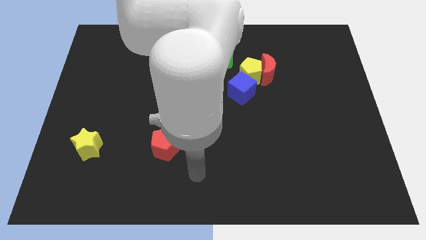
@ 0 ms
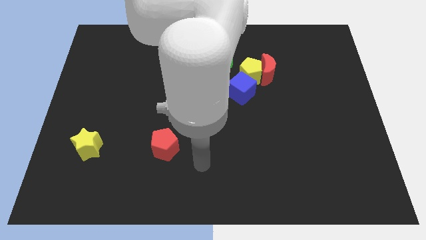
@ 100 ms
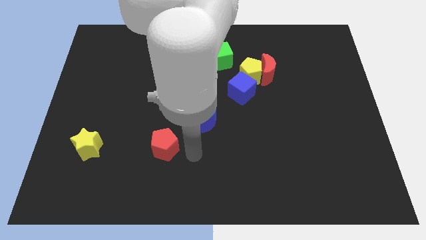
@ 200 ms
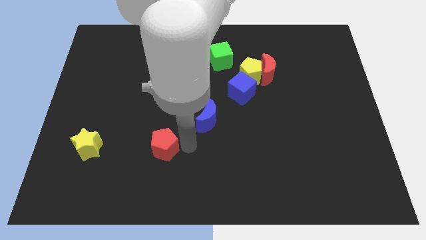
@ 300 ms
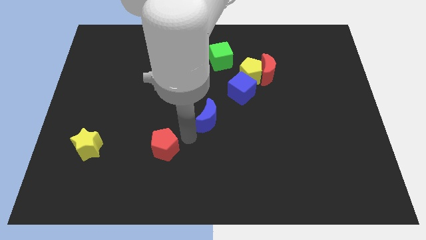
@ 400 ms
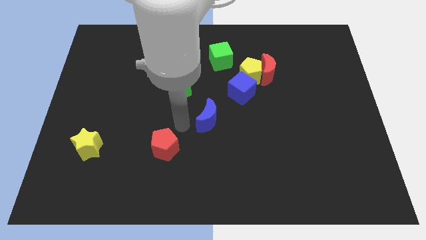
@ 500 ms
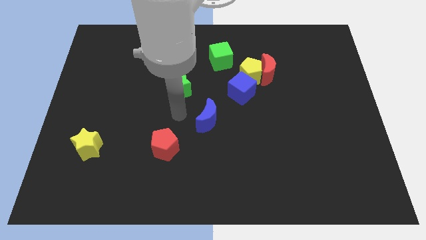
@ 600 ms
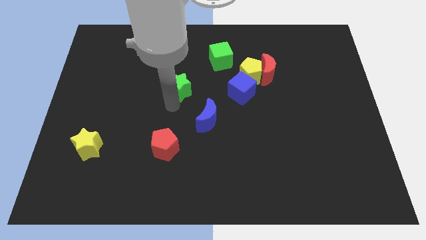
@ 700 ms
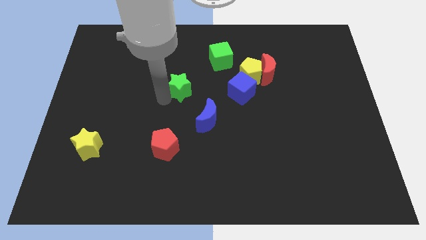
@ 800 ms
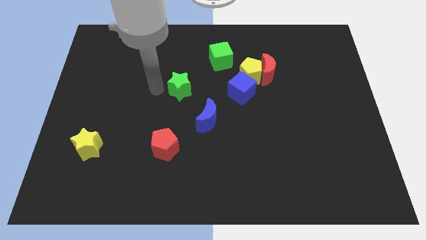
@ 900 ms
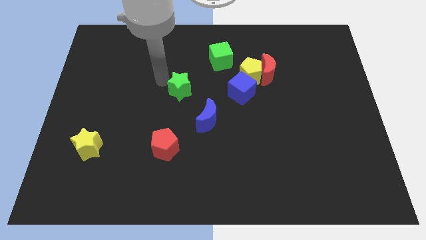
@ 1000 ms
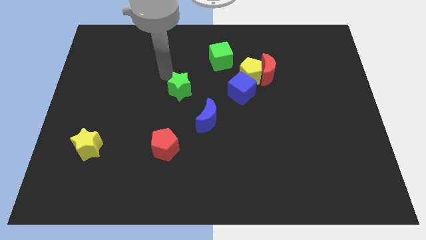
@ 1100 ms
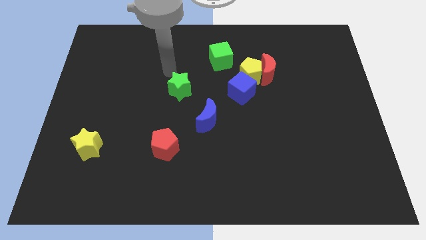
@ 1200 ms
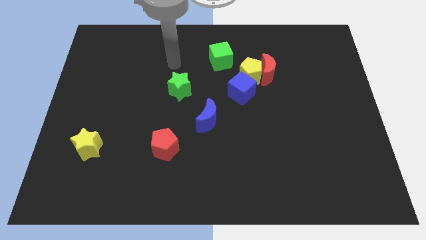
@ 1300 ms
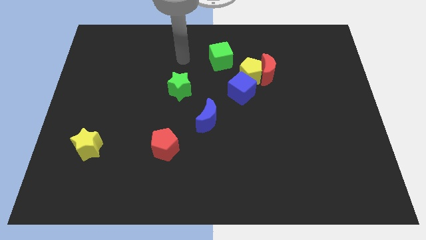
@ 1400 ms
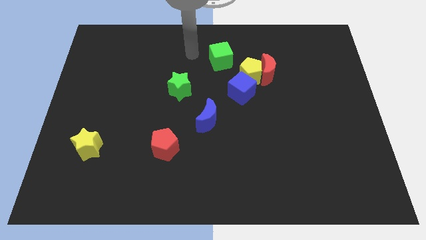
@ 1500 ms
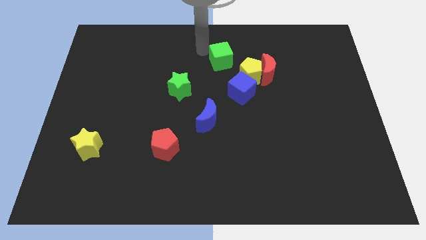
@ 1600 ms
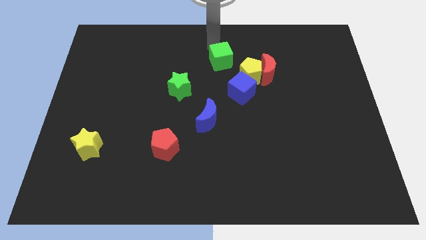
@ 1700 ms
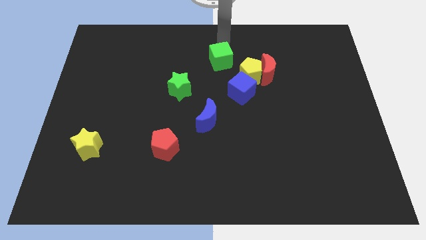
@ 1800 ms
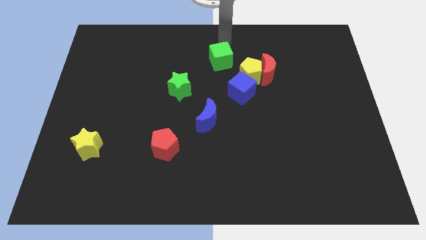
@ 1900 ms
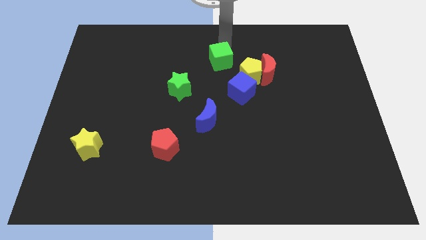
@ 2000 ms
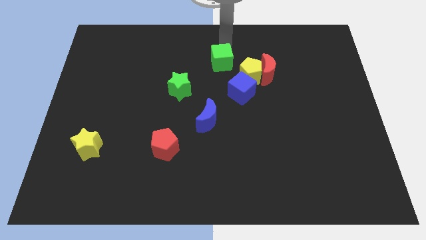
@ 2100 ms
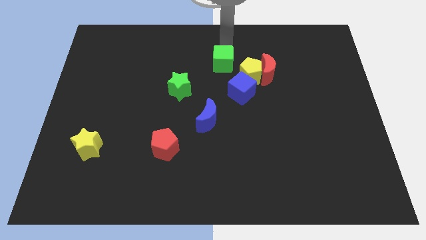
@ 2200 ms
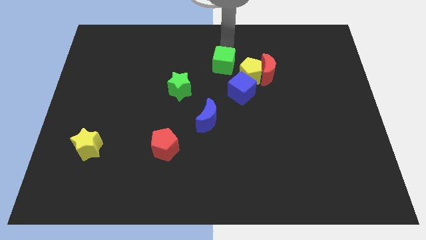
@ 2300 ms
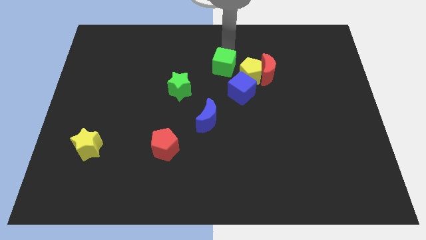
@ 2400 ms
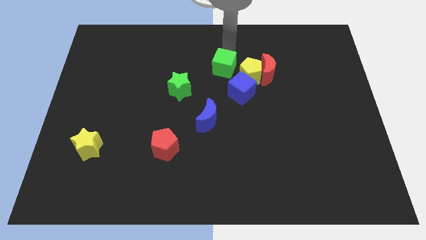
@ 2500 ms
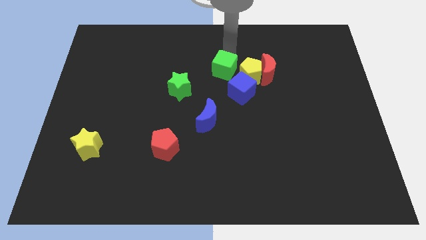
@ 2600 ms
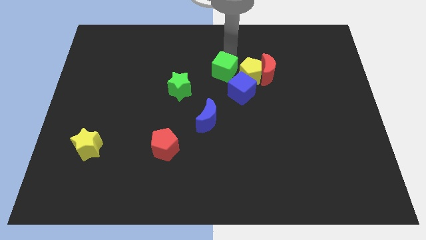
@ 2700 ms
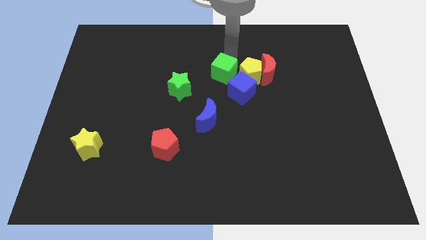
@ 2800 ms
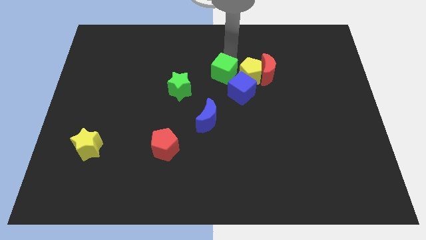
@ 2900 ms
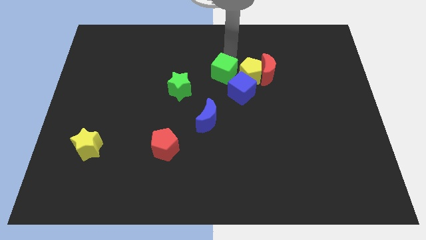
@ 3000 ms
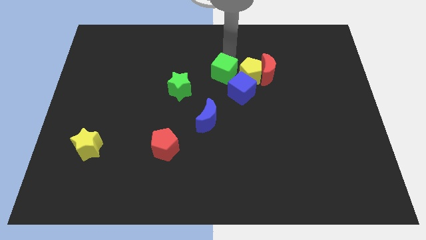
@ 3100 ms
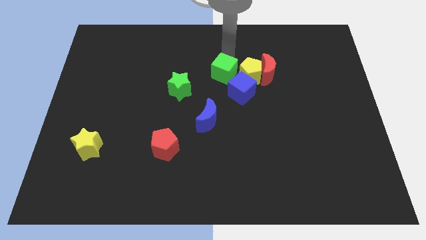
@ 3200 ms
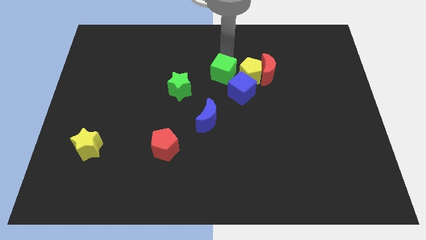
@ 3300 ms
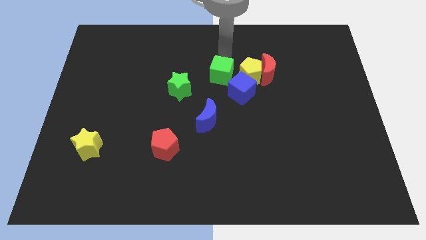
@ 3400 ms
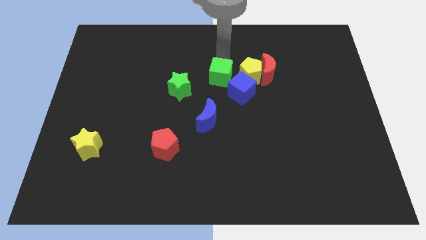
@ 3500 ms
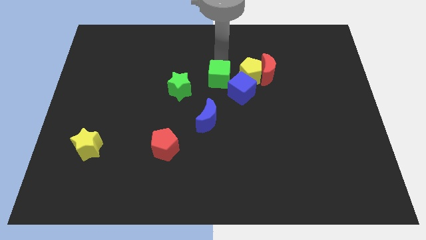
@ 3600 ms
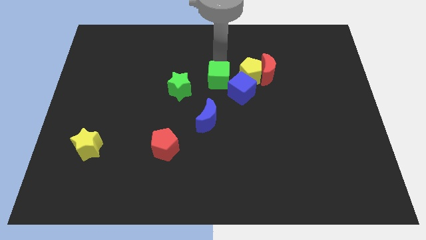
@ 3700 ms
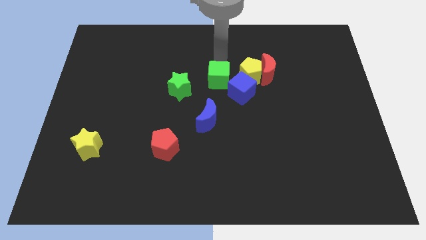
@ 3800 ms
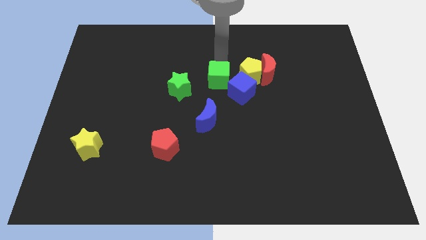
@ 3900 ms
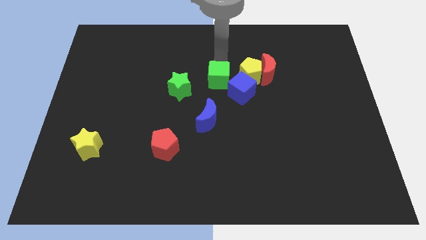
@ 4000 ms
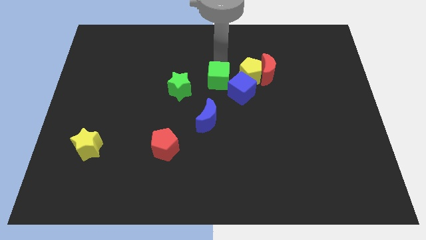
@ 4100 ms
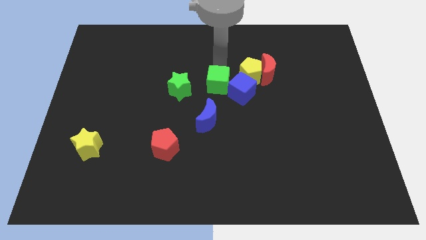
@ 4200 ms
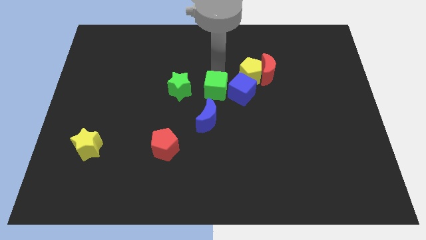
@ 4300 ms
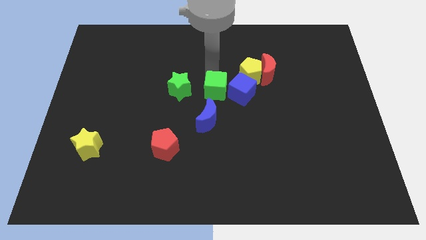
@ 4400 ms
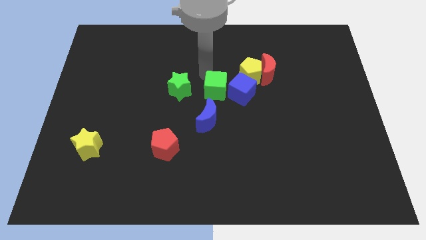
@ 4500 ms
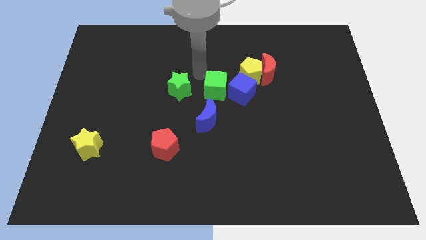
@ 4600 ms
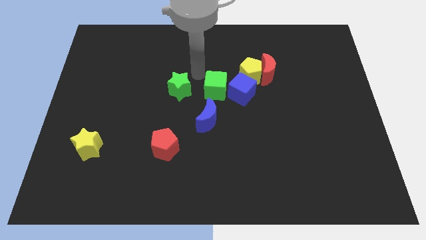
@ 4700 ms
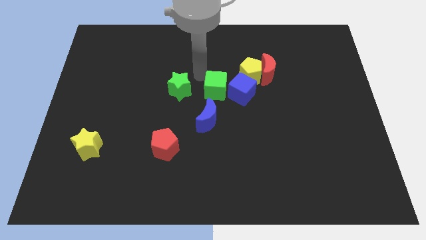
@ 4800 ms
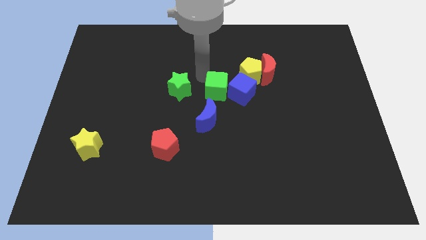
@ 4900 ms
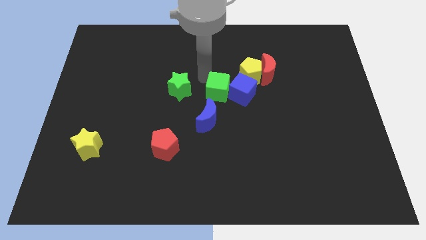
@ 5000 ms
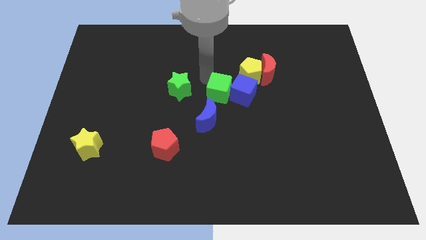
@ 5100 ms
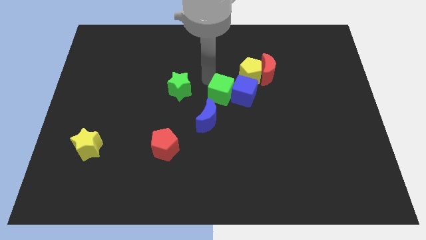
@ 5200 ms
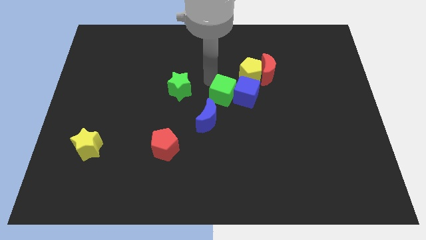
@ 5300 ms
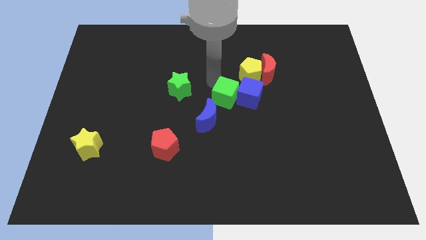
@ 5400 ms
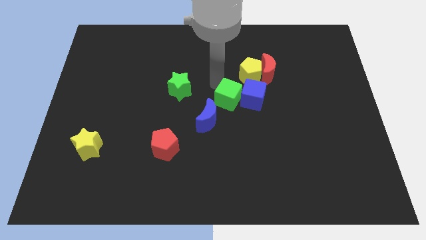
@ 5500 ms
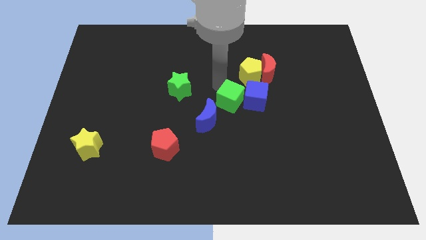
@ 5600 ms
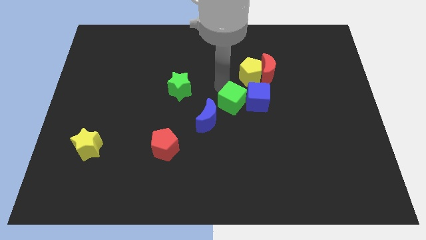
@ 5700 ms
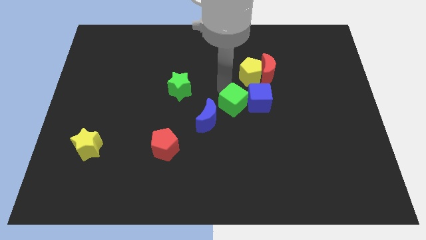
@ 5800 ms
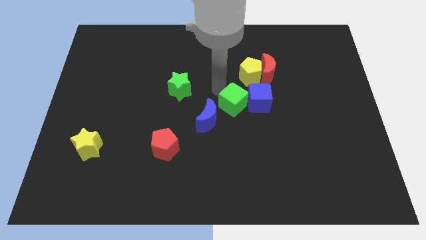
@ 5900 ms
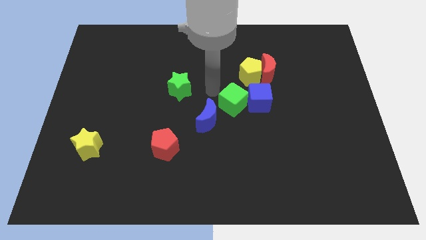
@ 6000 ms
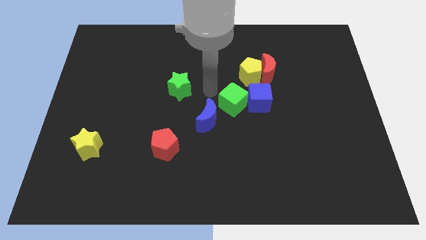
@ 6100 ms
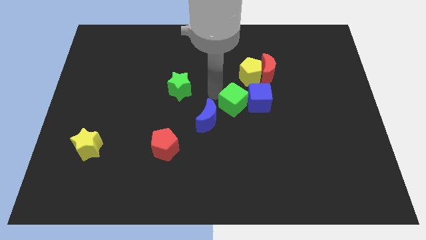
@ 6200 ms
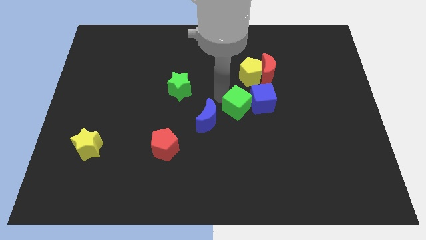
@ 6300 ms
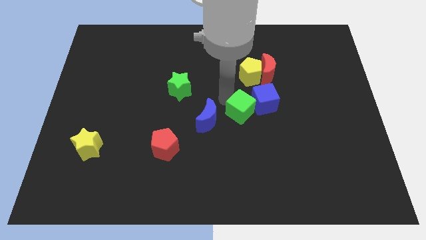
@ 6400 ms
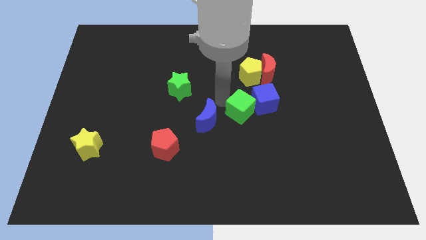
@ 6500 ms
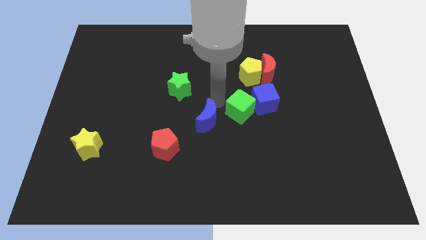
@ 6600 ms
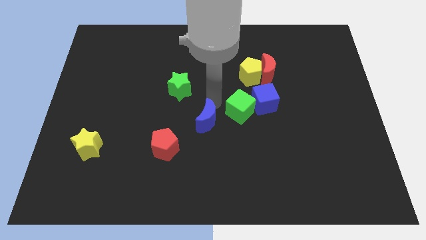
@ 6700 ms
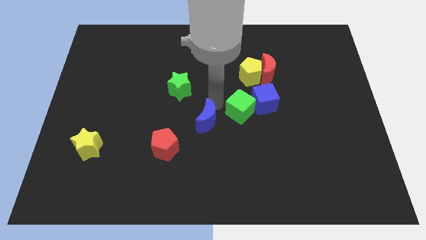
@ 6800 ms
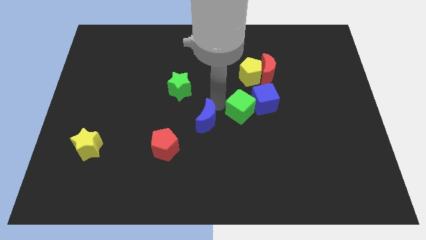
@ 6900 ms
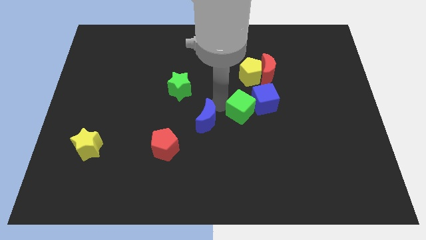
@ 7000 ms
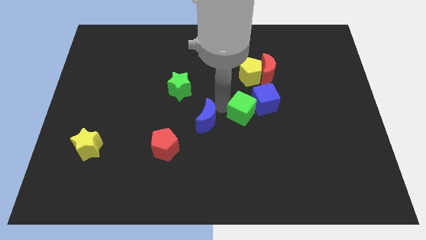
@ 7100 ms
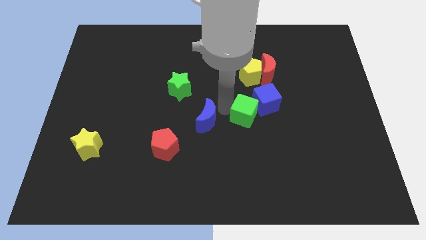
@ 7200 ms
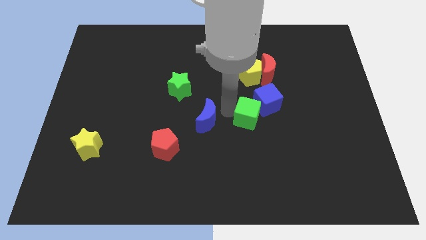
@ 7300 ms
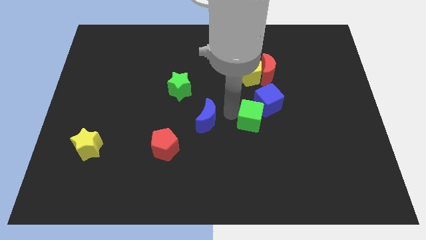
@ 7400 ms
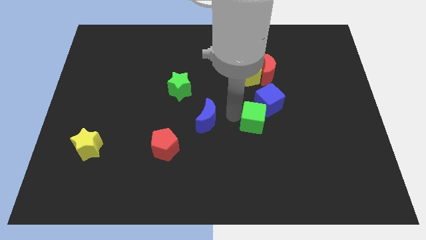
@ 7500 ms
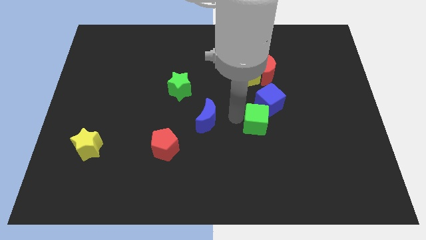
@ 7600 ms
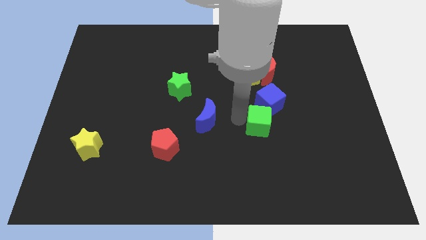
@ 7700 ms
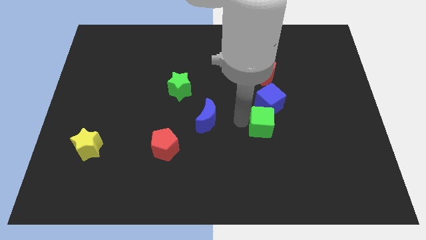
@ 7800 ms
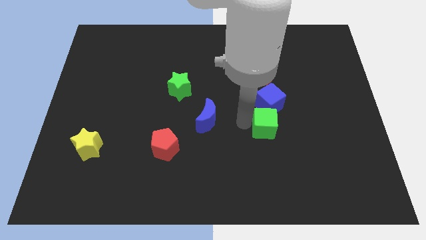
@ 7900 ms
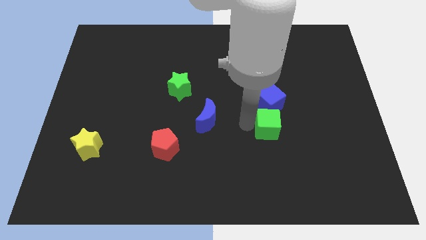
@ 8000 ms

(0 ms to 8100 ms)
move the green cube diagonally downwards and to the right
